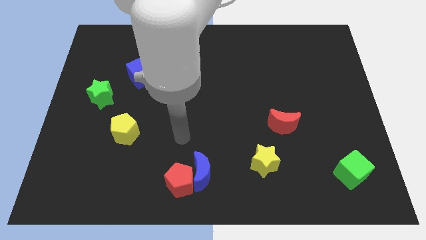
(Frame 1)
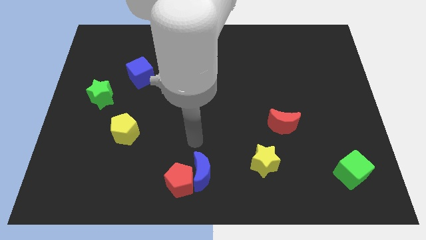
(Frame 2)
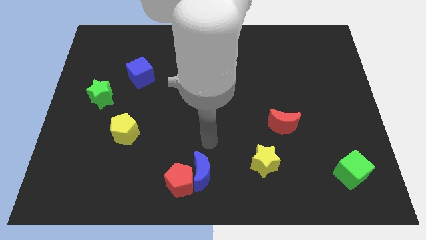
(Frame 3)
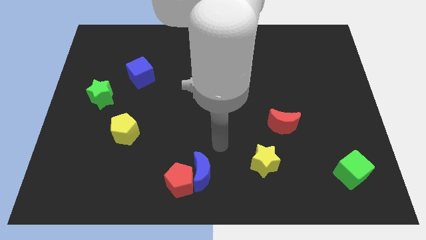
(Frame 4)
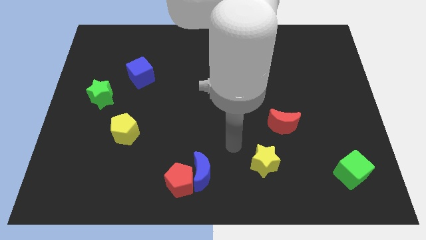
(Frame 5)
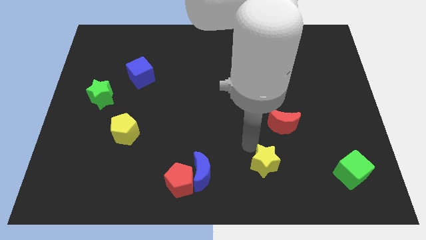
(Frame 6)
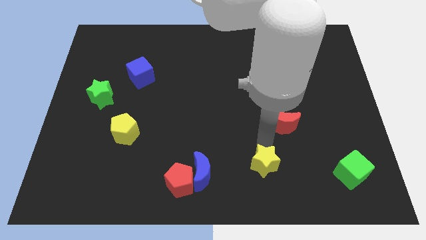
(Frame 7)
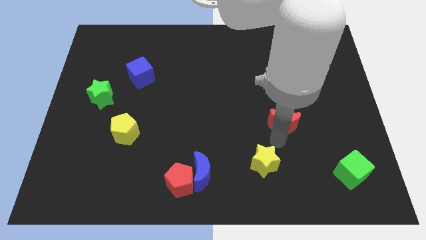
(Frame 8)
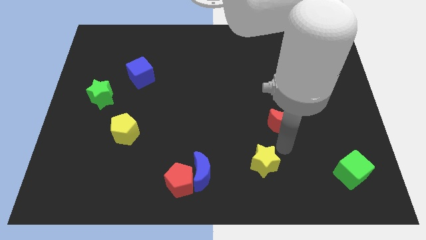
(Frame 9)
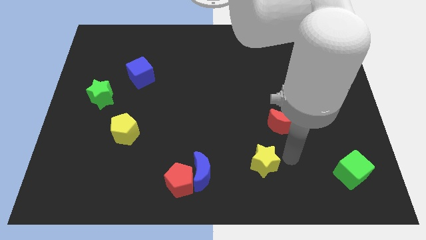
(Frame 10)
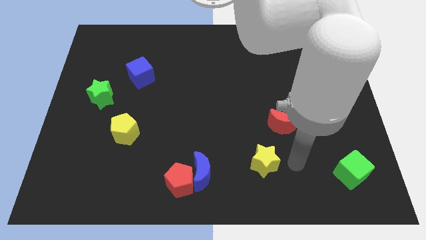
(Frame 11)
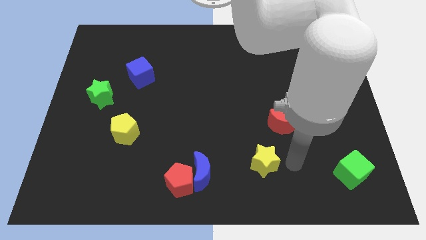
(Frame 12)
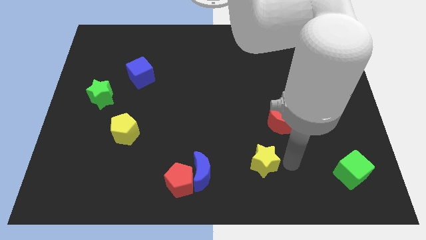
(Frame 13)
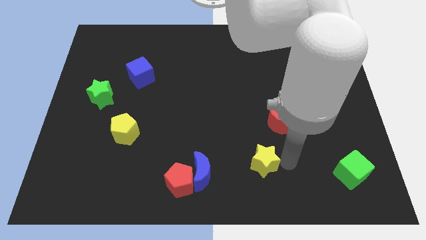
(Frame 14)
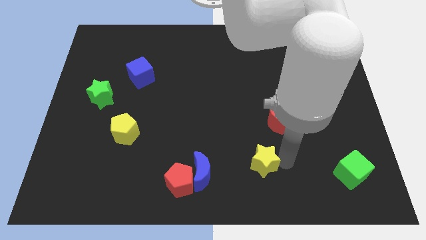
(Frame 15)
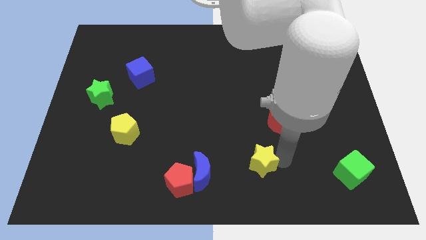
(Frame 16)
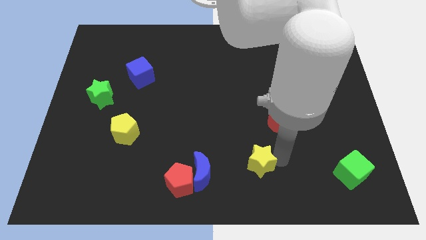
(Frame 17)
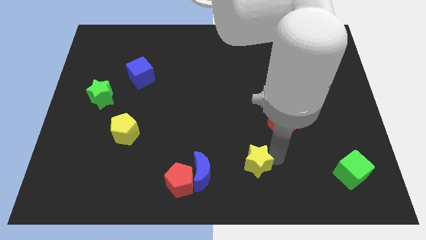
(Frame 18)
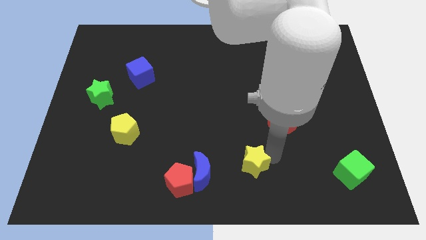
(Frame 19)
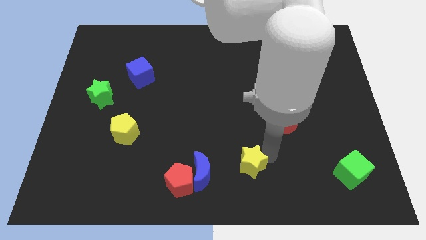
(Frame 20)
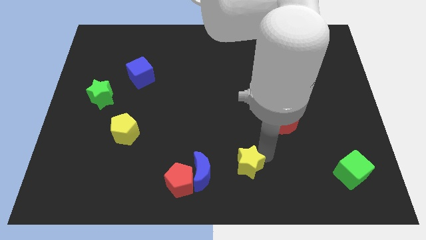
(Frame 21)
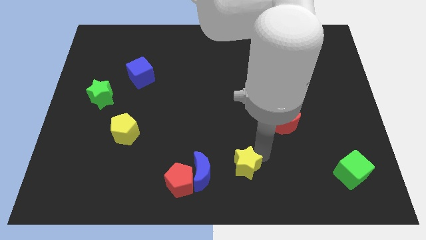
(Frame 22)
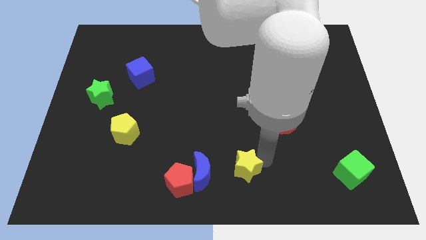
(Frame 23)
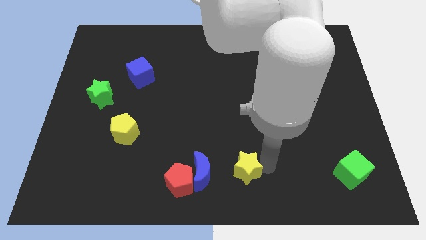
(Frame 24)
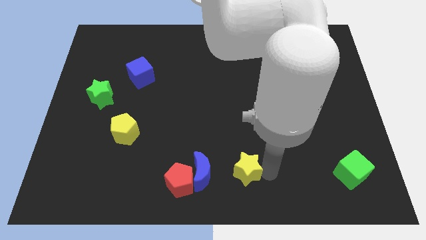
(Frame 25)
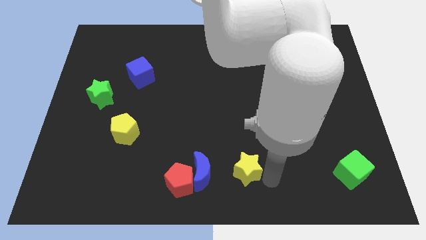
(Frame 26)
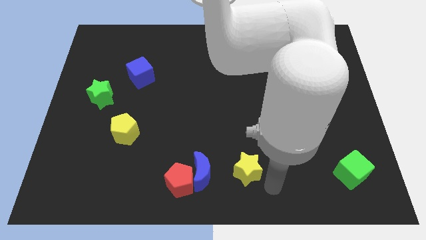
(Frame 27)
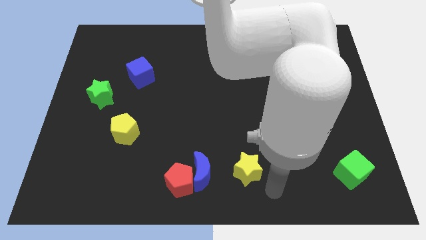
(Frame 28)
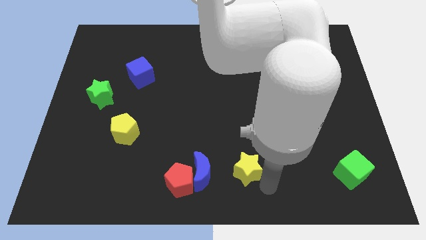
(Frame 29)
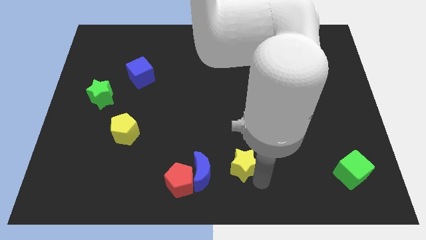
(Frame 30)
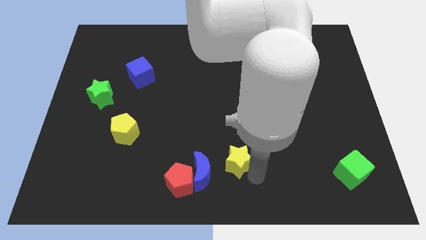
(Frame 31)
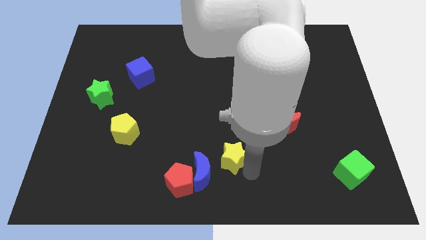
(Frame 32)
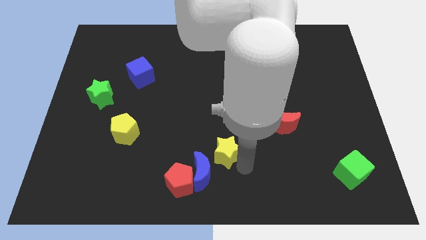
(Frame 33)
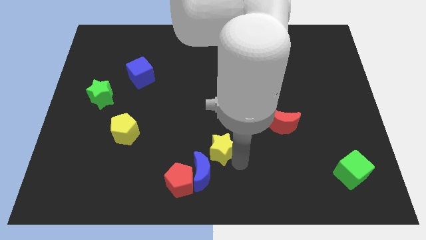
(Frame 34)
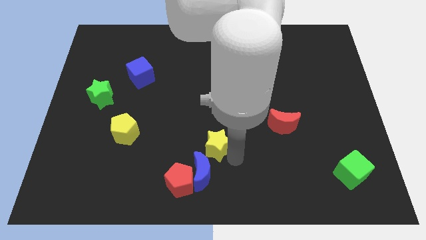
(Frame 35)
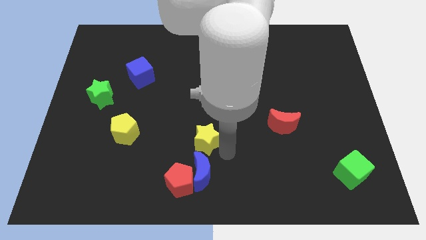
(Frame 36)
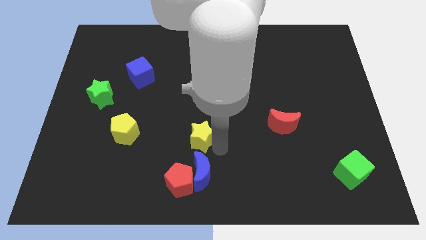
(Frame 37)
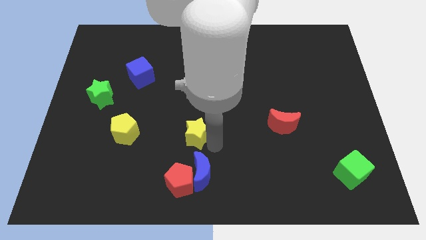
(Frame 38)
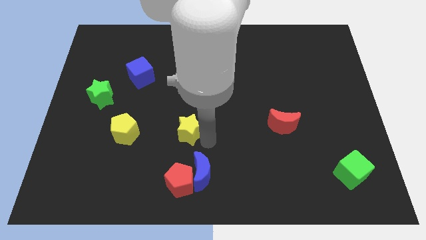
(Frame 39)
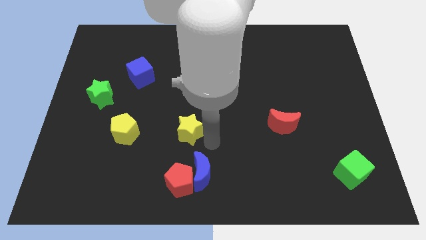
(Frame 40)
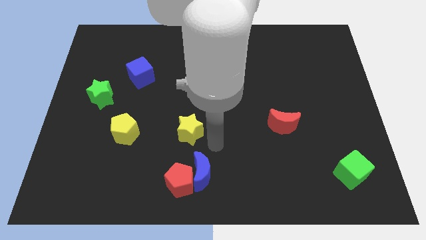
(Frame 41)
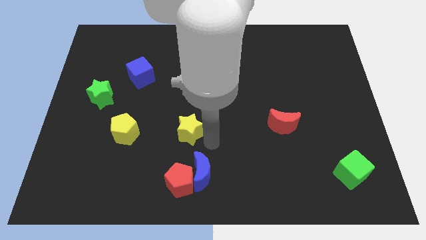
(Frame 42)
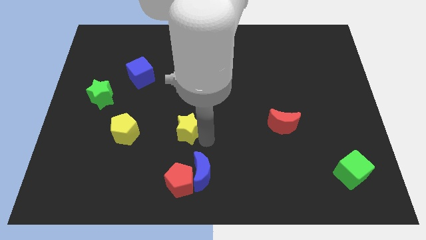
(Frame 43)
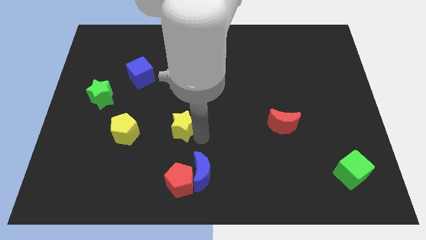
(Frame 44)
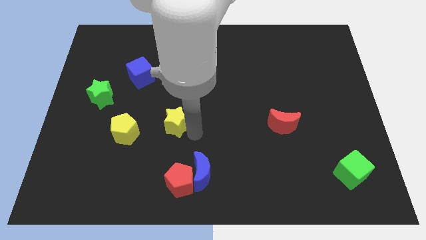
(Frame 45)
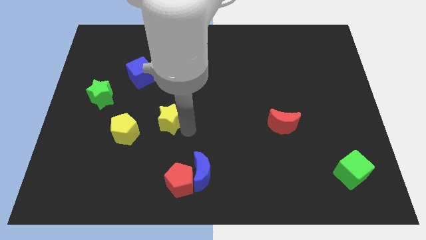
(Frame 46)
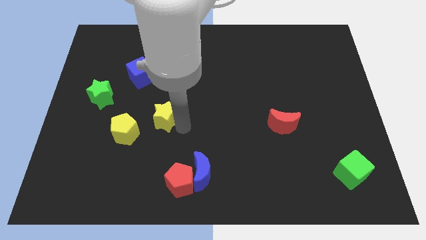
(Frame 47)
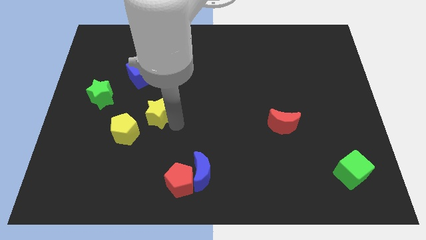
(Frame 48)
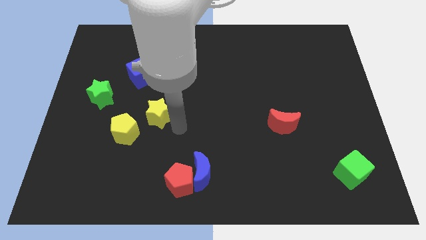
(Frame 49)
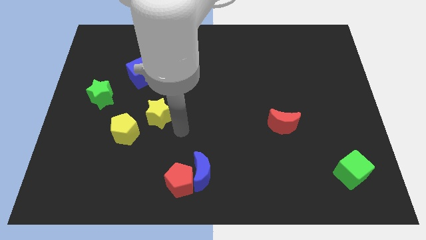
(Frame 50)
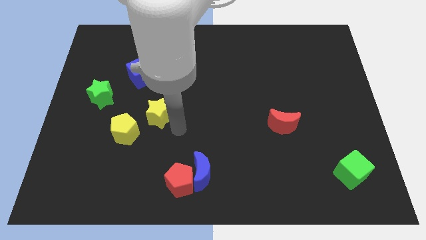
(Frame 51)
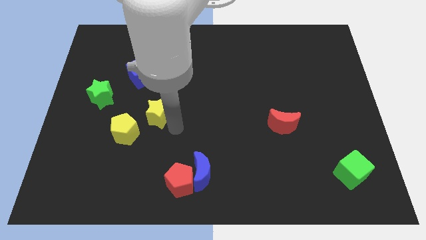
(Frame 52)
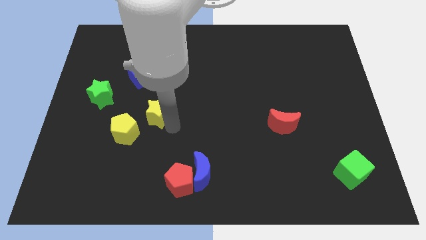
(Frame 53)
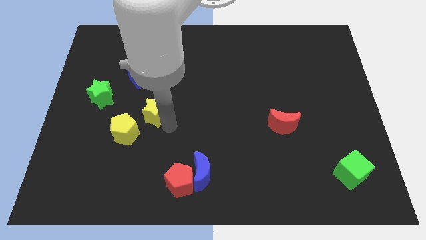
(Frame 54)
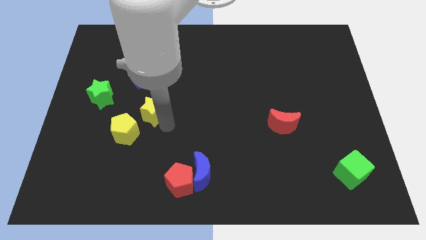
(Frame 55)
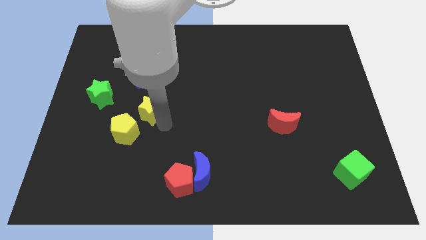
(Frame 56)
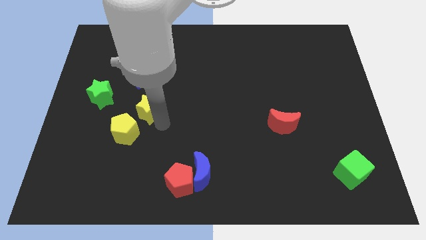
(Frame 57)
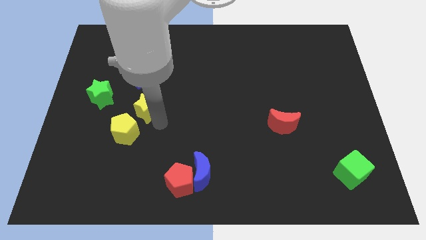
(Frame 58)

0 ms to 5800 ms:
move the yellow star to the top of the yellow pentagon

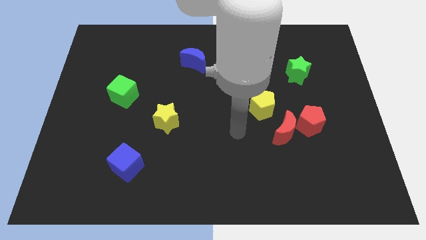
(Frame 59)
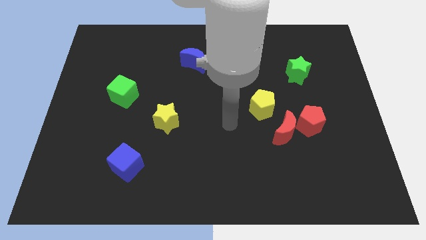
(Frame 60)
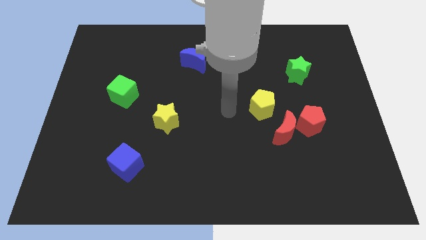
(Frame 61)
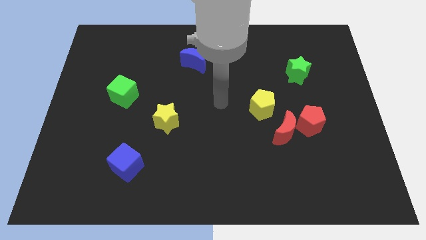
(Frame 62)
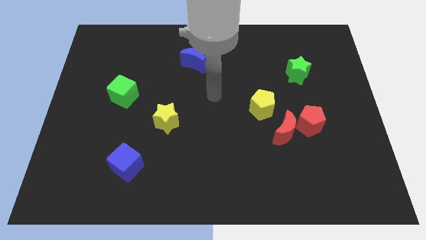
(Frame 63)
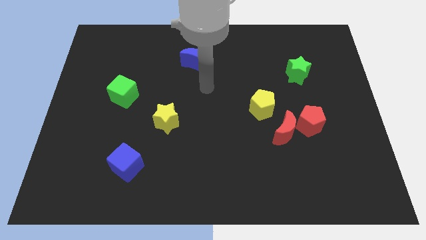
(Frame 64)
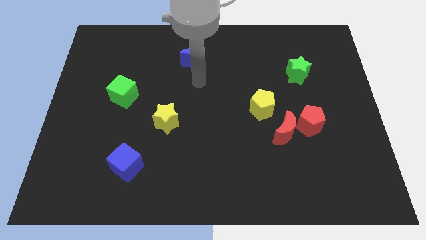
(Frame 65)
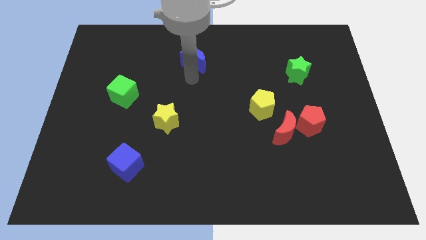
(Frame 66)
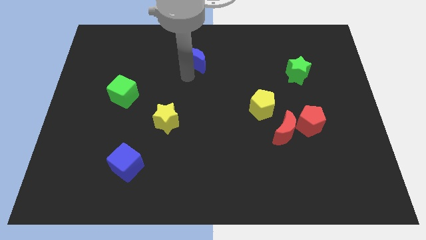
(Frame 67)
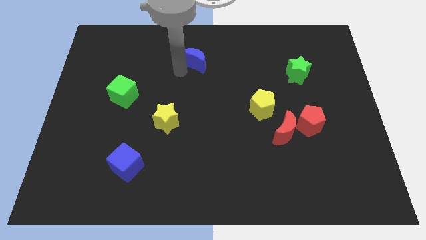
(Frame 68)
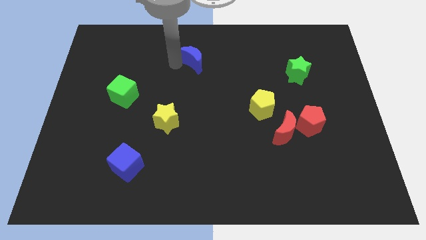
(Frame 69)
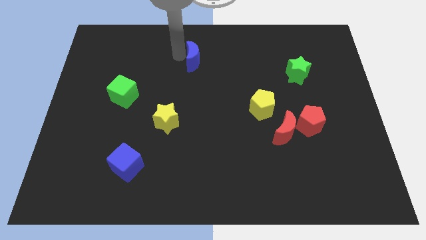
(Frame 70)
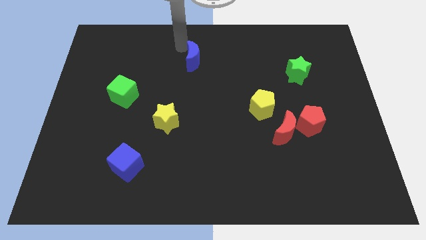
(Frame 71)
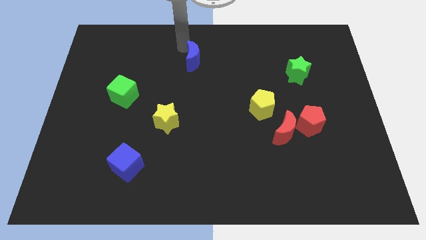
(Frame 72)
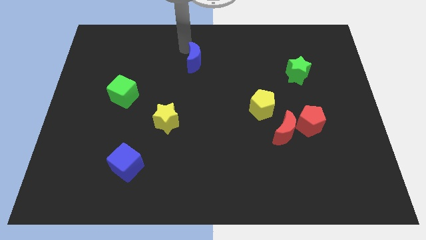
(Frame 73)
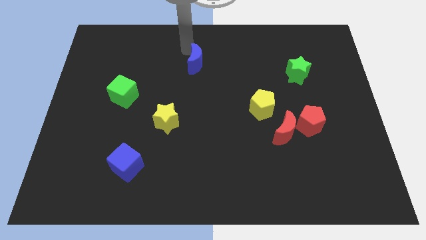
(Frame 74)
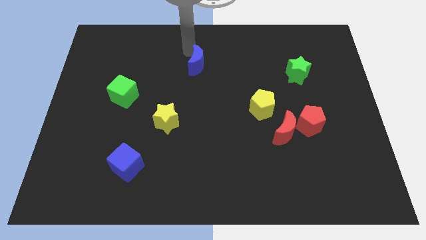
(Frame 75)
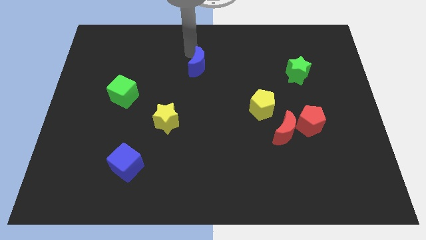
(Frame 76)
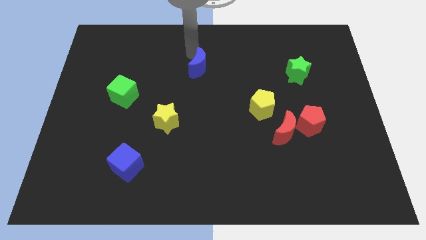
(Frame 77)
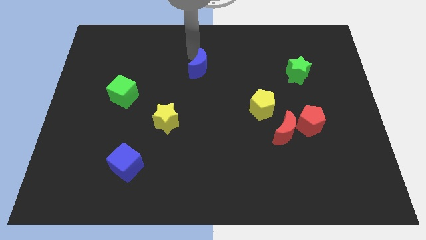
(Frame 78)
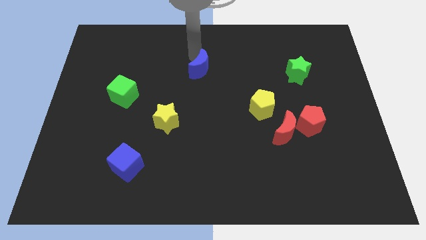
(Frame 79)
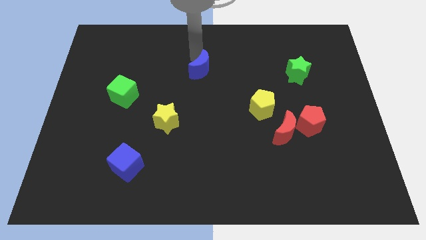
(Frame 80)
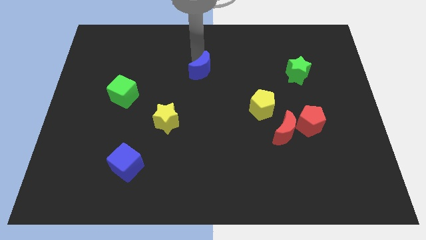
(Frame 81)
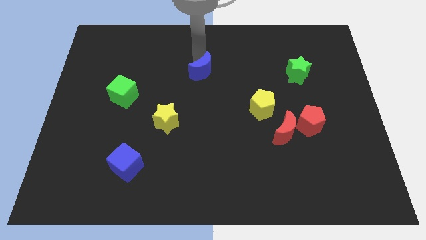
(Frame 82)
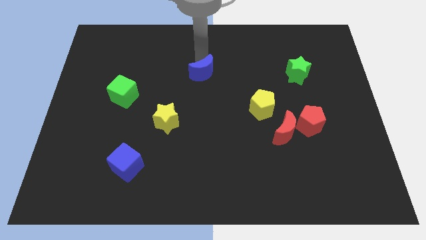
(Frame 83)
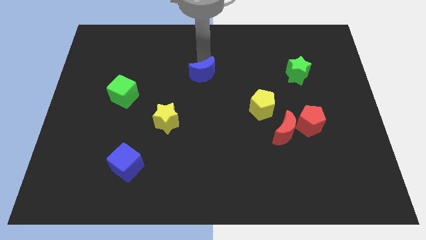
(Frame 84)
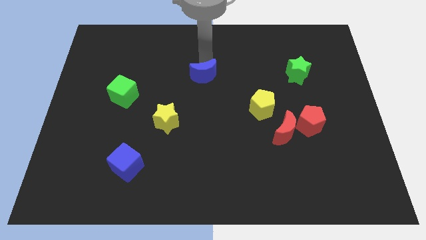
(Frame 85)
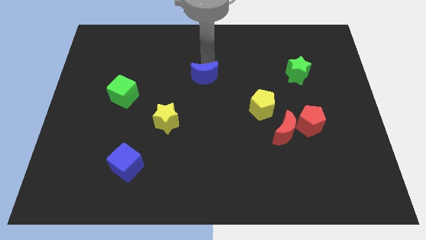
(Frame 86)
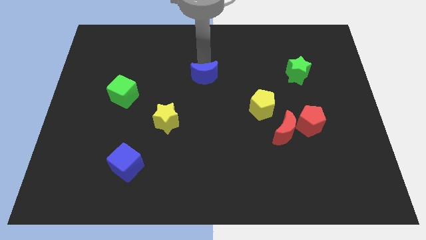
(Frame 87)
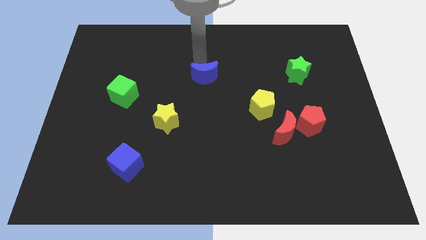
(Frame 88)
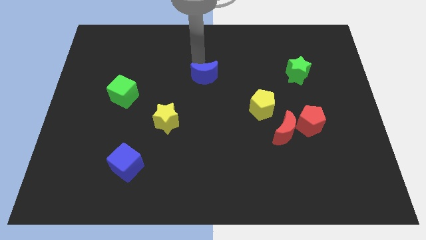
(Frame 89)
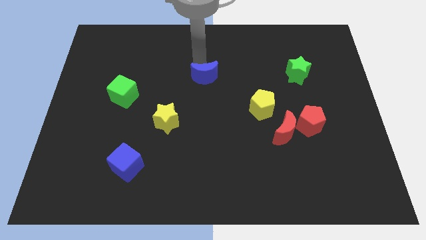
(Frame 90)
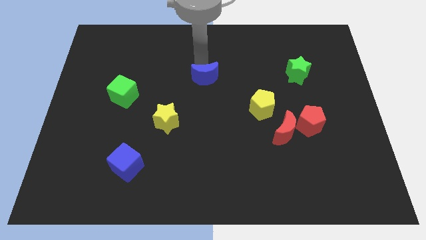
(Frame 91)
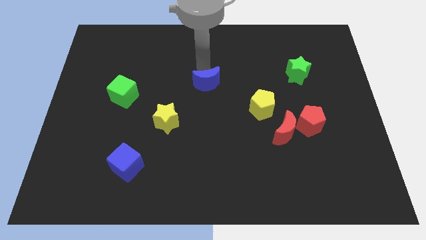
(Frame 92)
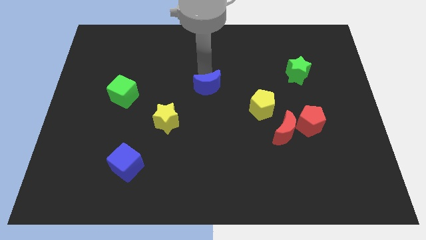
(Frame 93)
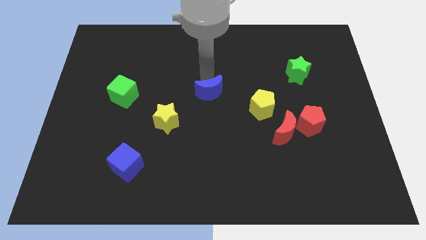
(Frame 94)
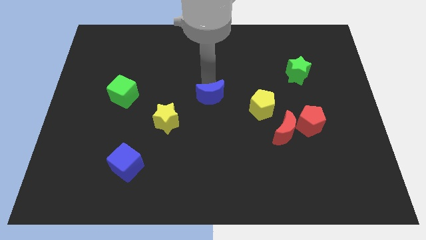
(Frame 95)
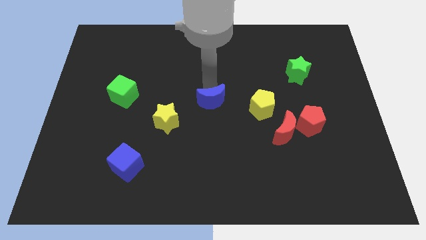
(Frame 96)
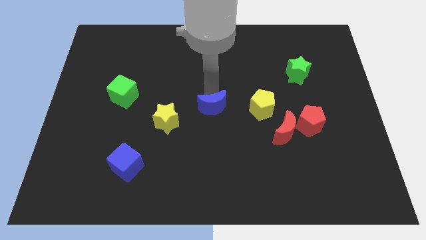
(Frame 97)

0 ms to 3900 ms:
push the blue moon to the right side of the yellow star
